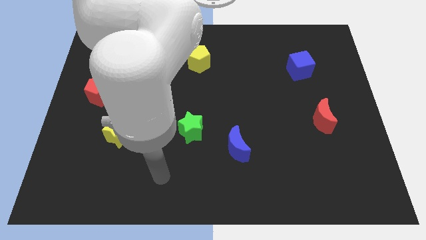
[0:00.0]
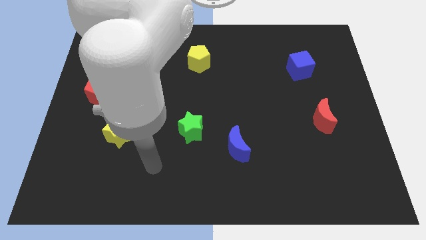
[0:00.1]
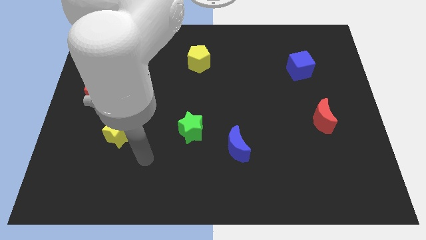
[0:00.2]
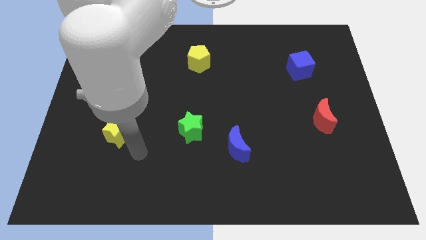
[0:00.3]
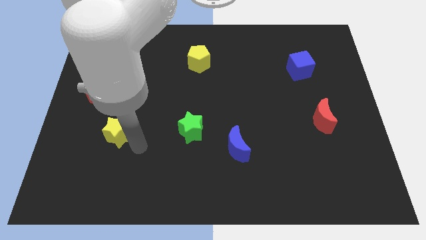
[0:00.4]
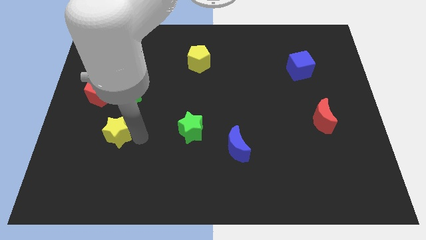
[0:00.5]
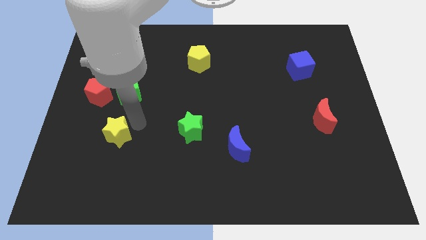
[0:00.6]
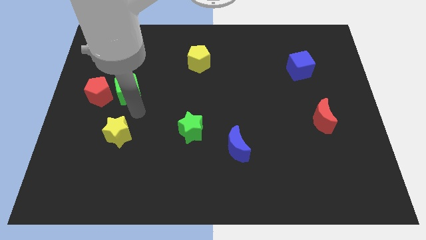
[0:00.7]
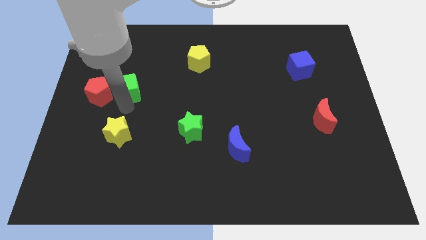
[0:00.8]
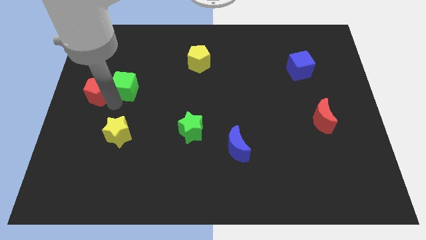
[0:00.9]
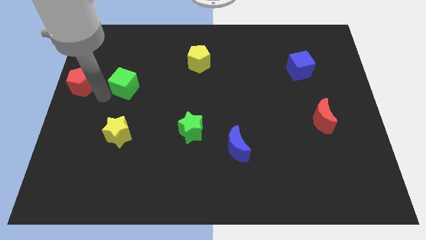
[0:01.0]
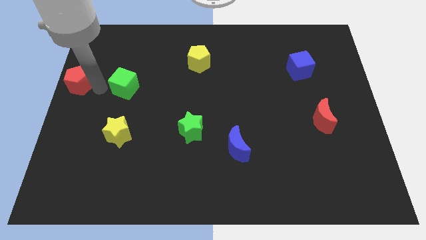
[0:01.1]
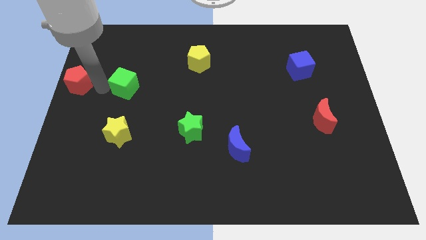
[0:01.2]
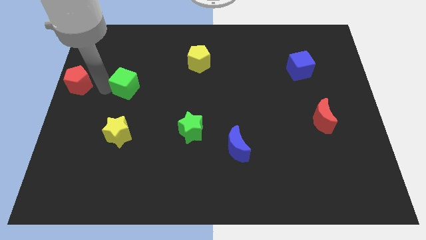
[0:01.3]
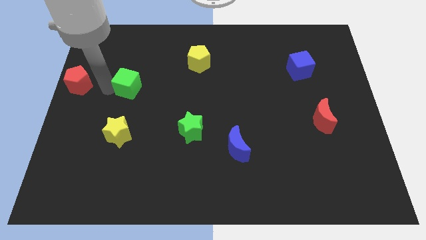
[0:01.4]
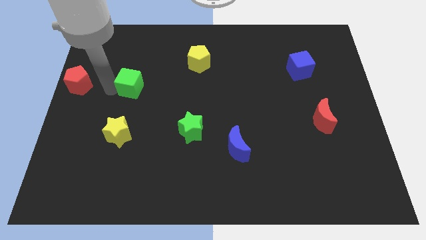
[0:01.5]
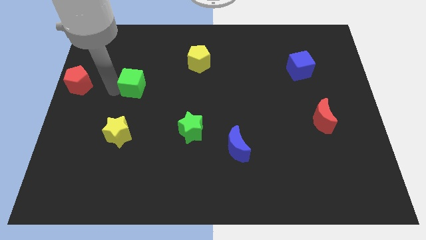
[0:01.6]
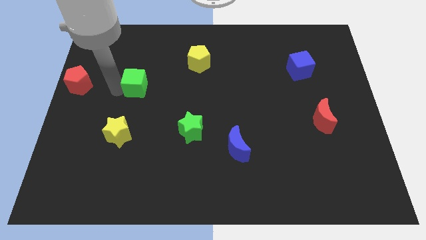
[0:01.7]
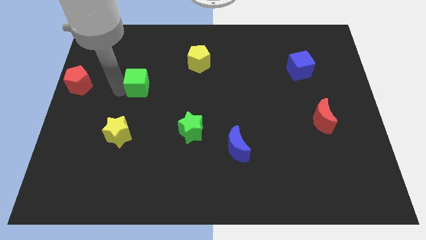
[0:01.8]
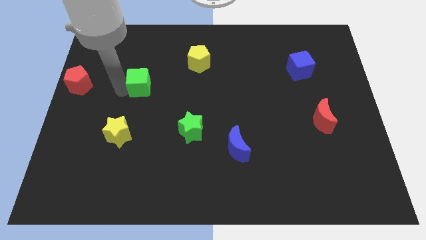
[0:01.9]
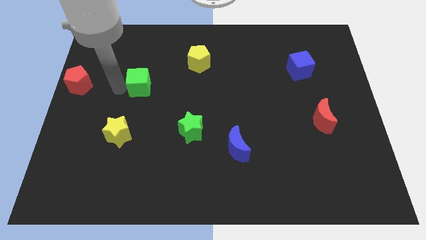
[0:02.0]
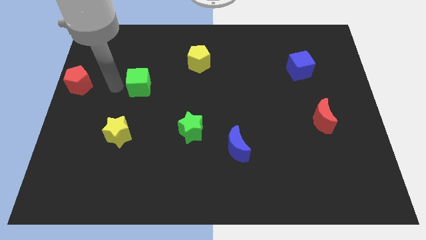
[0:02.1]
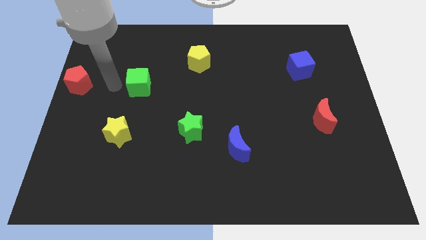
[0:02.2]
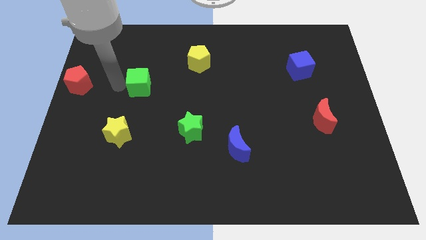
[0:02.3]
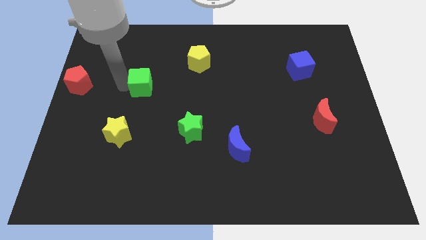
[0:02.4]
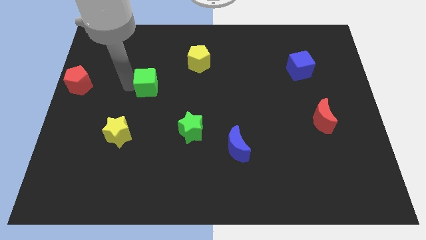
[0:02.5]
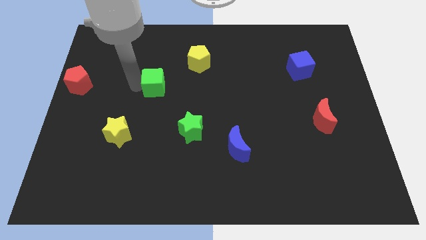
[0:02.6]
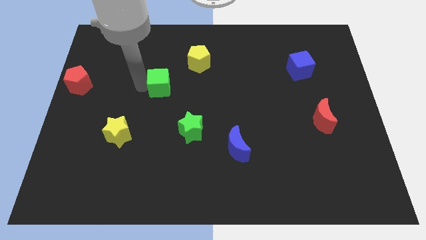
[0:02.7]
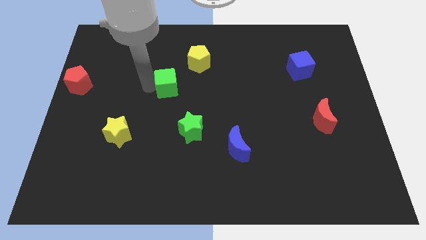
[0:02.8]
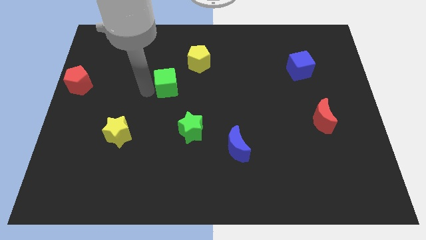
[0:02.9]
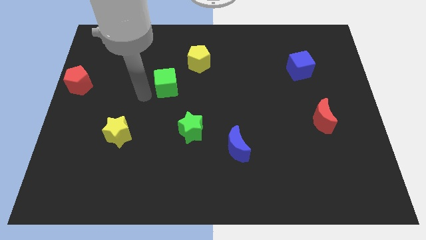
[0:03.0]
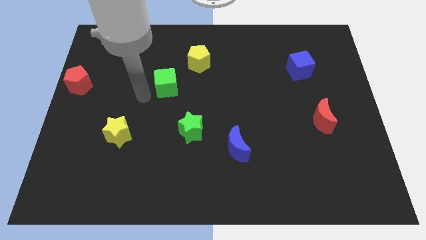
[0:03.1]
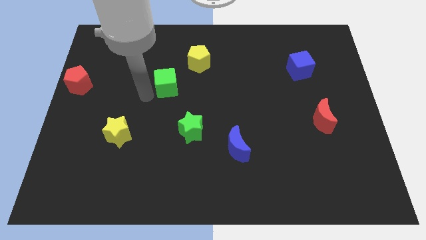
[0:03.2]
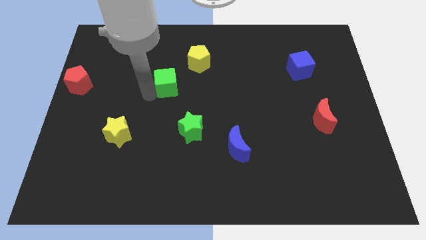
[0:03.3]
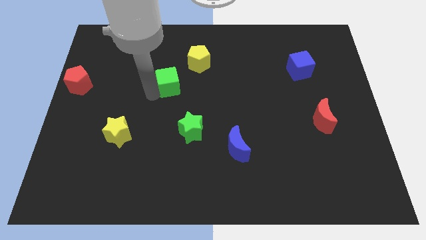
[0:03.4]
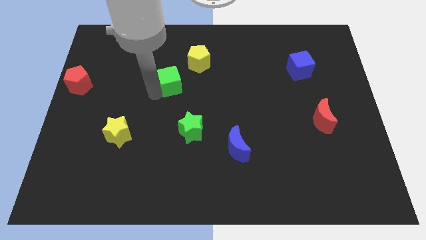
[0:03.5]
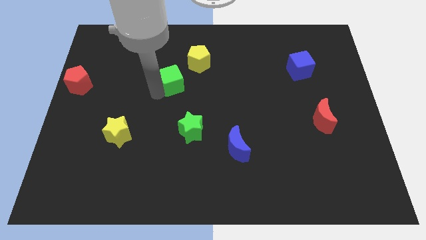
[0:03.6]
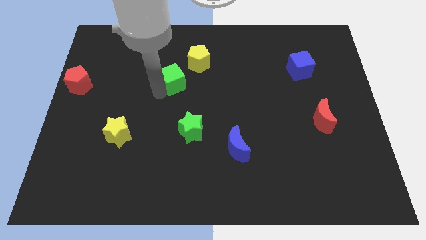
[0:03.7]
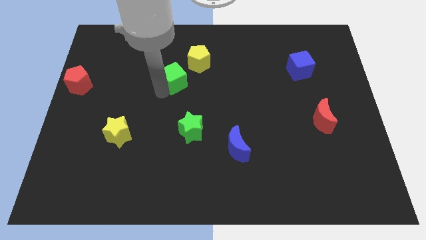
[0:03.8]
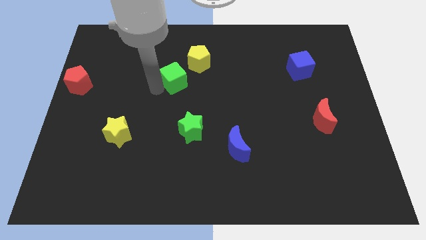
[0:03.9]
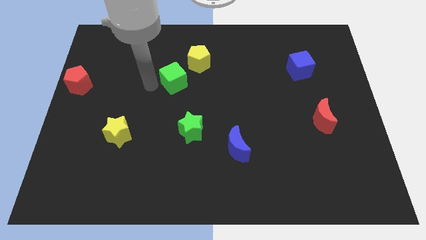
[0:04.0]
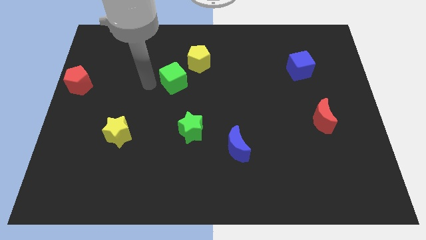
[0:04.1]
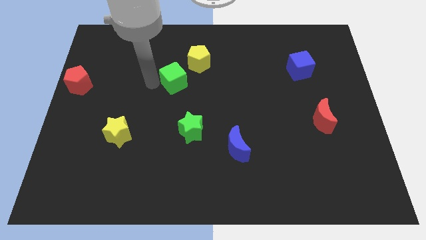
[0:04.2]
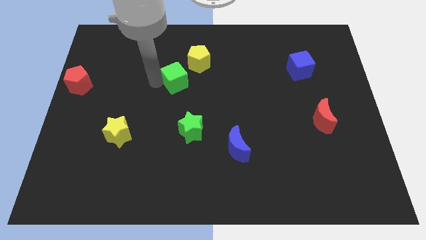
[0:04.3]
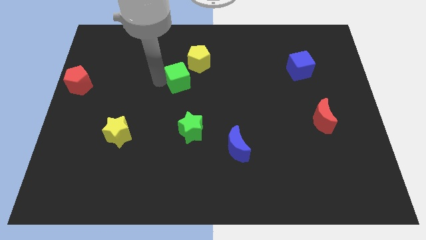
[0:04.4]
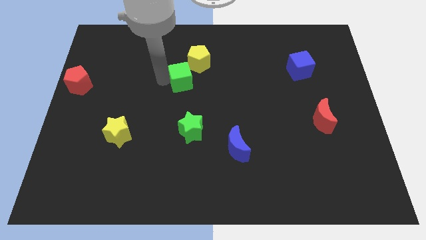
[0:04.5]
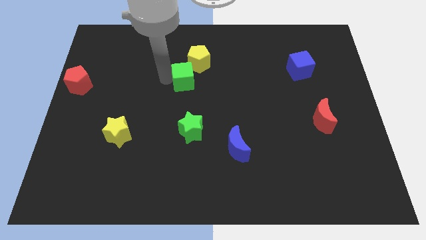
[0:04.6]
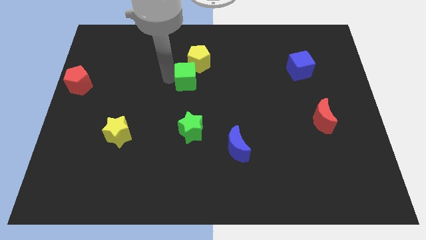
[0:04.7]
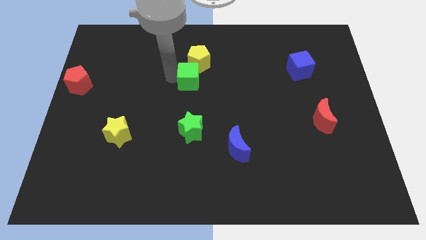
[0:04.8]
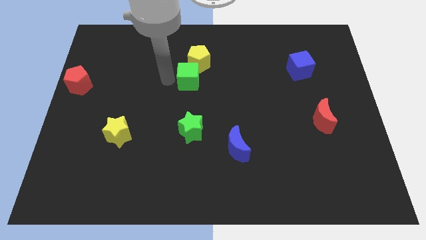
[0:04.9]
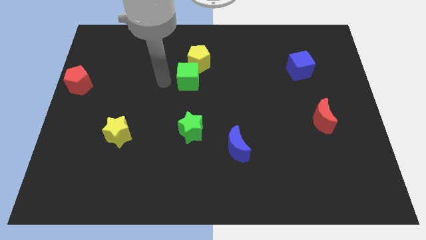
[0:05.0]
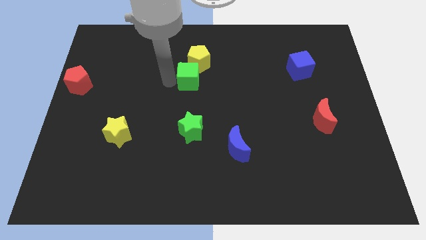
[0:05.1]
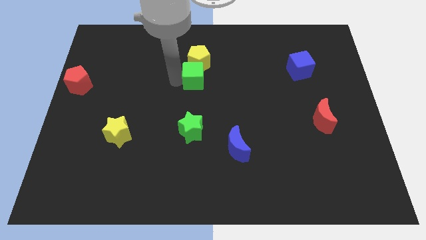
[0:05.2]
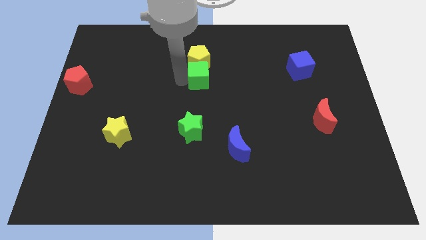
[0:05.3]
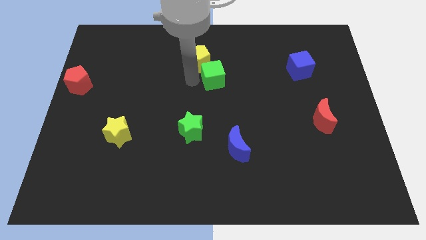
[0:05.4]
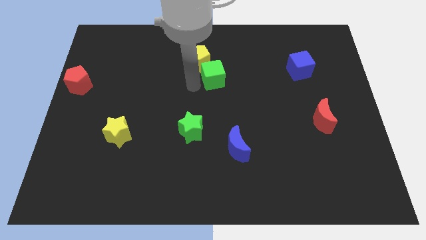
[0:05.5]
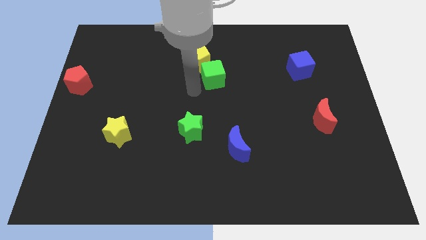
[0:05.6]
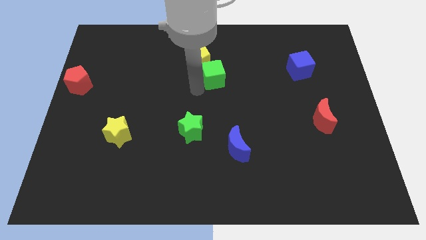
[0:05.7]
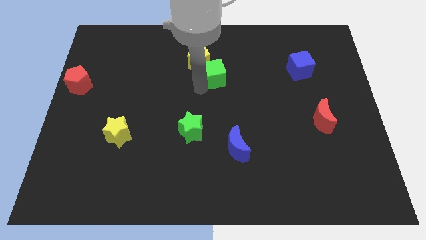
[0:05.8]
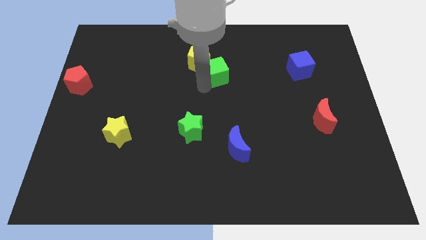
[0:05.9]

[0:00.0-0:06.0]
push the green cube to the right side of the yellow pentagon

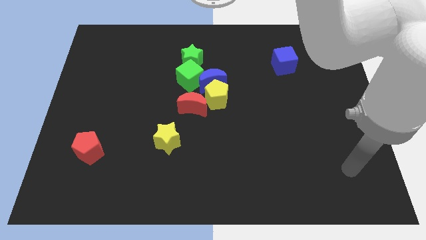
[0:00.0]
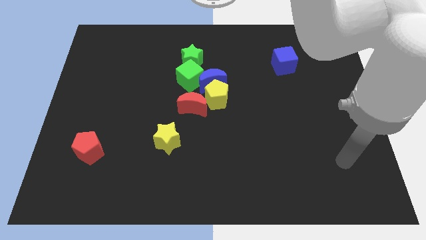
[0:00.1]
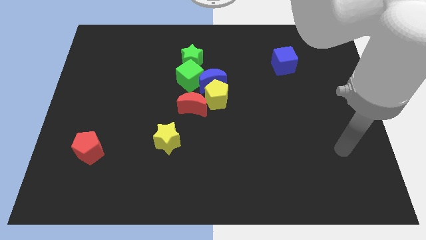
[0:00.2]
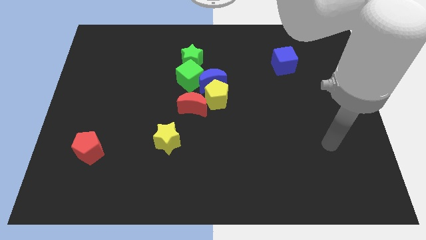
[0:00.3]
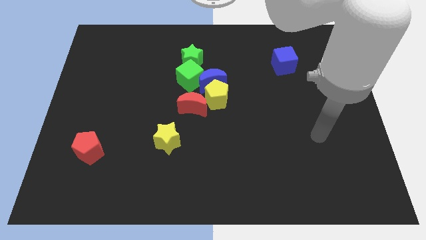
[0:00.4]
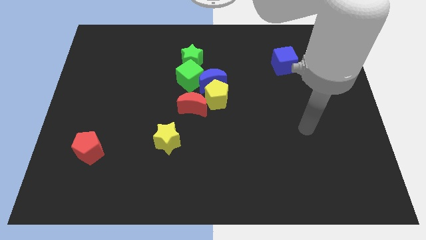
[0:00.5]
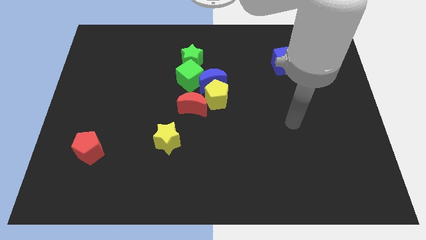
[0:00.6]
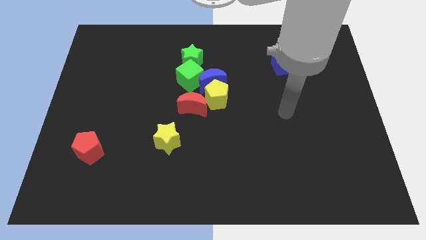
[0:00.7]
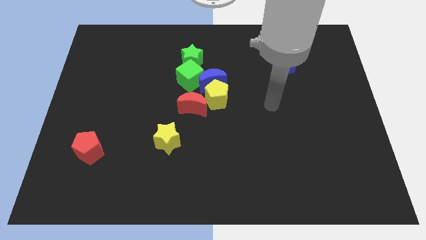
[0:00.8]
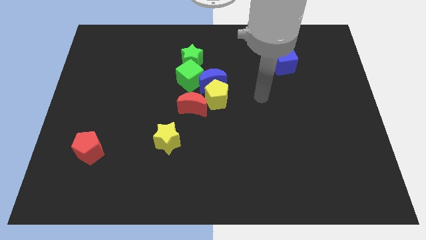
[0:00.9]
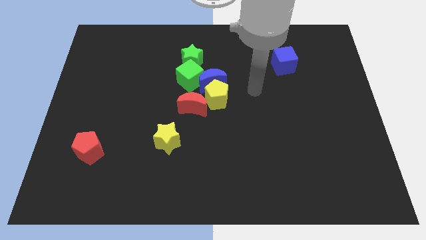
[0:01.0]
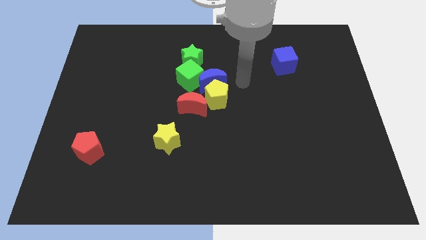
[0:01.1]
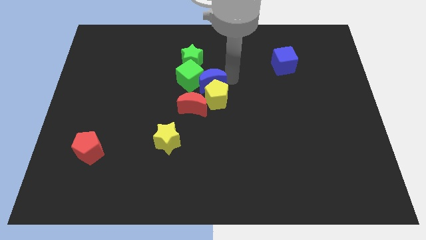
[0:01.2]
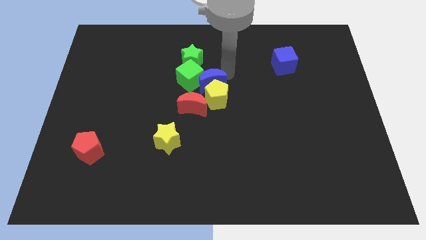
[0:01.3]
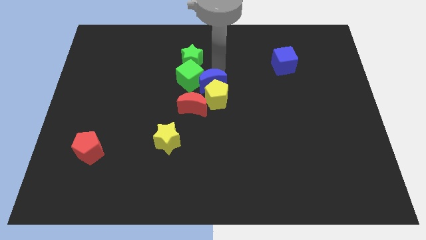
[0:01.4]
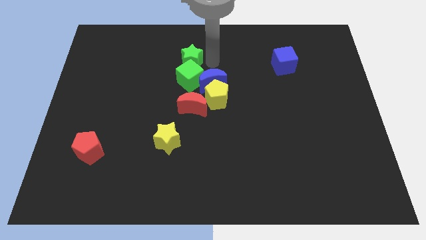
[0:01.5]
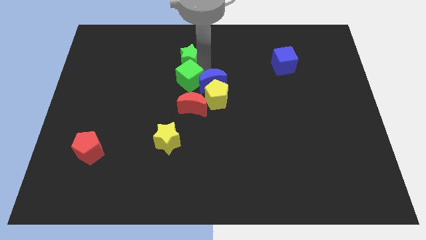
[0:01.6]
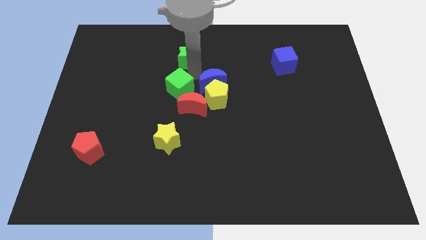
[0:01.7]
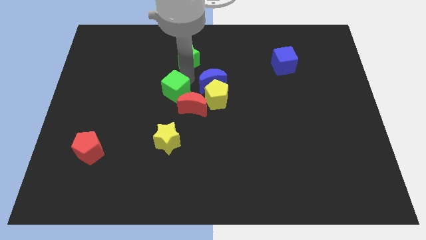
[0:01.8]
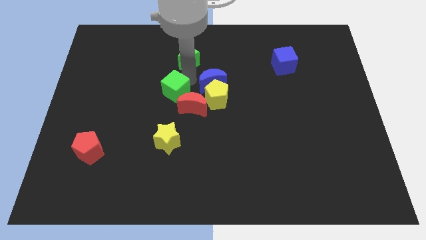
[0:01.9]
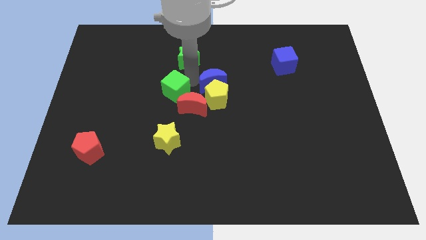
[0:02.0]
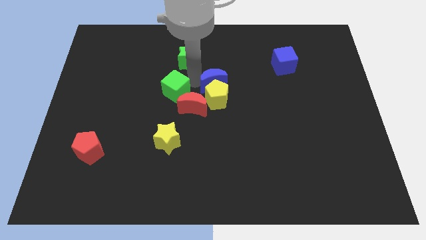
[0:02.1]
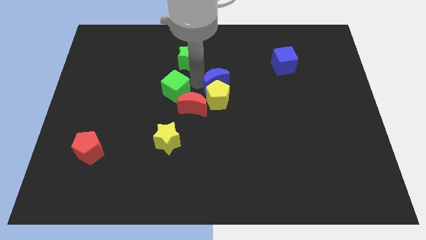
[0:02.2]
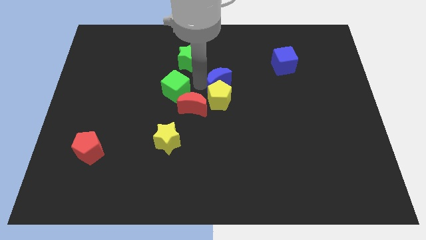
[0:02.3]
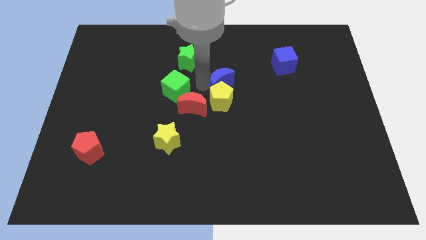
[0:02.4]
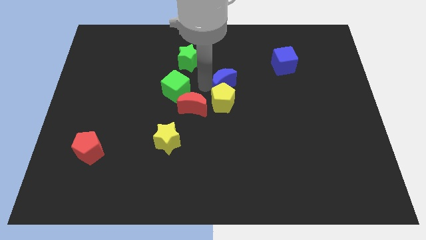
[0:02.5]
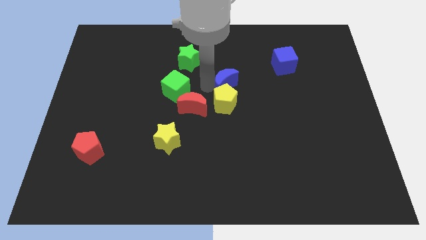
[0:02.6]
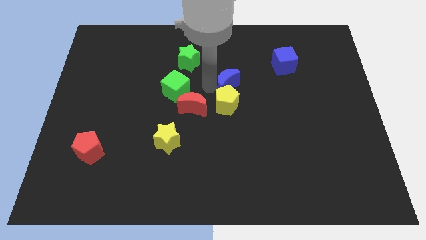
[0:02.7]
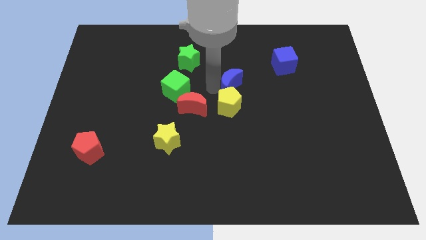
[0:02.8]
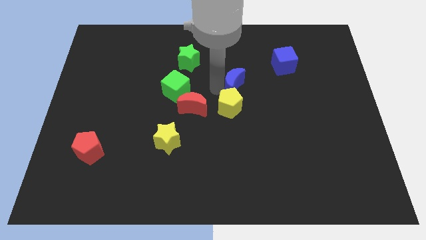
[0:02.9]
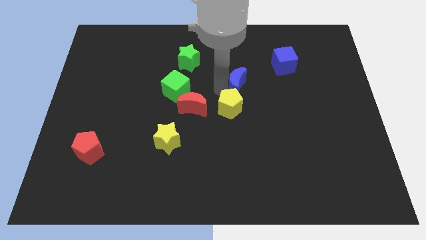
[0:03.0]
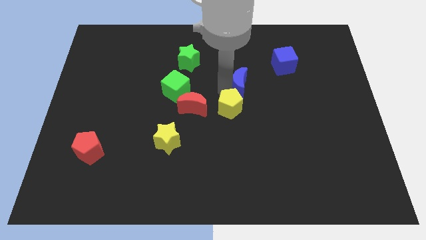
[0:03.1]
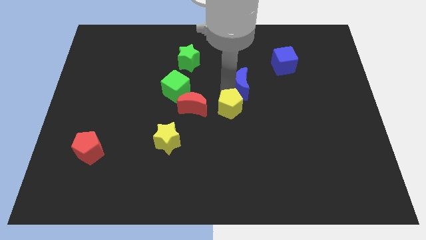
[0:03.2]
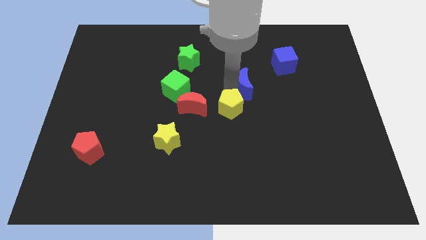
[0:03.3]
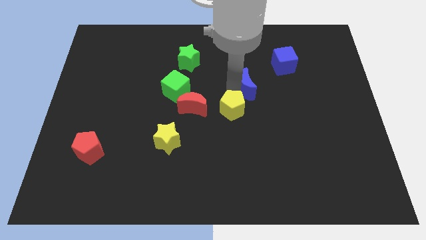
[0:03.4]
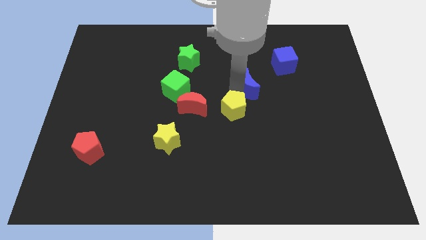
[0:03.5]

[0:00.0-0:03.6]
put the blue moon to the bottom left of the blue cube
